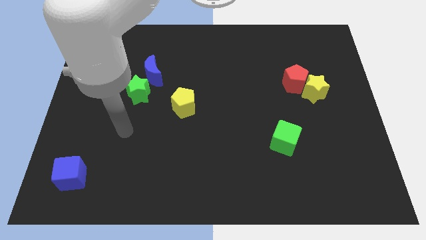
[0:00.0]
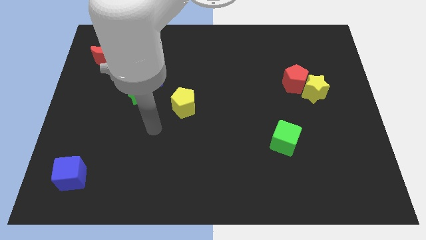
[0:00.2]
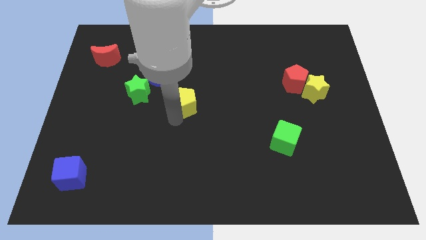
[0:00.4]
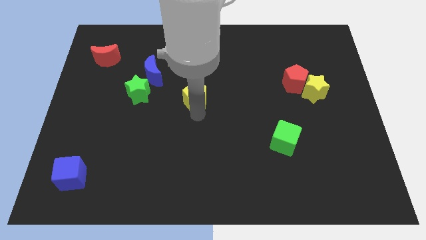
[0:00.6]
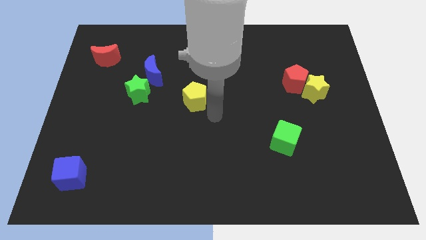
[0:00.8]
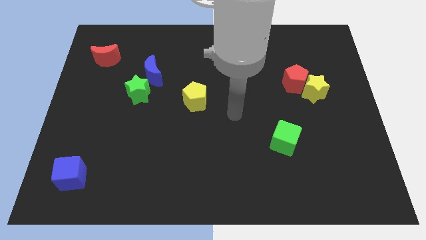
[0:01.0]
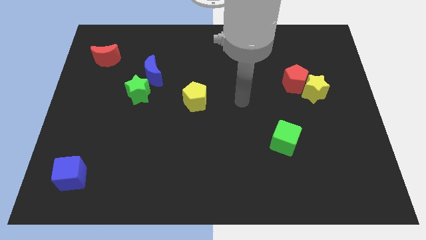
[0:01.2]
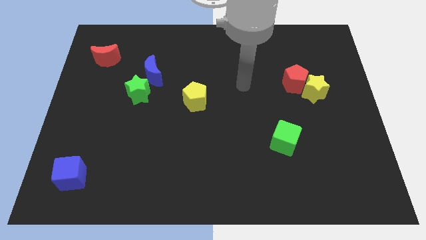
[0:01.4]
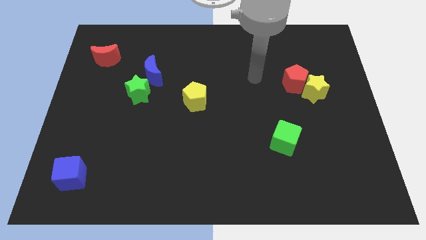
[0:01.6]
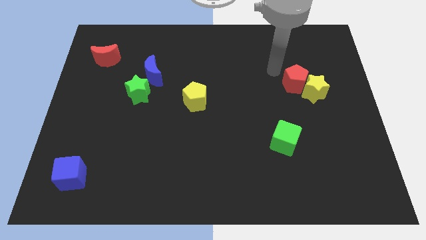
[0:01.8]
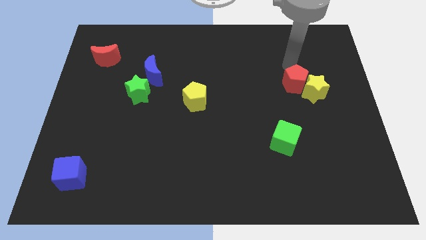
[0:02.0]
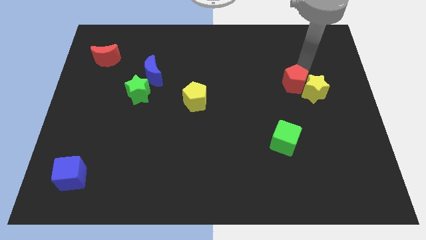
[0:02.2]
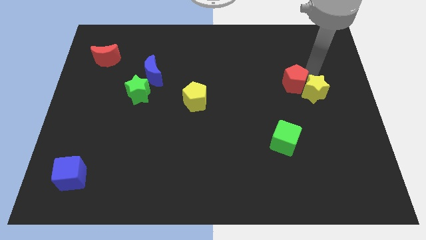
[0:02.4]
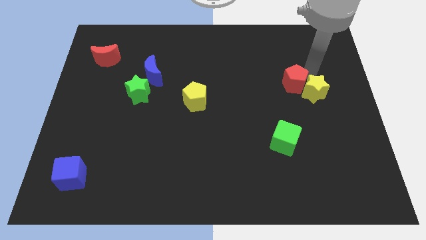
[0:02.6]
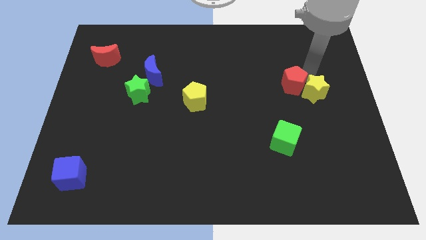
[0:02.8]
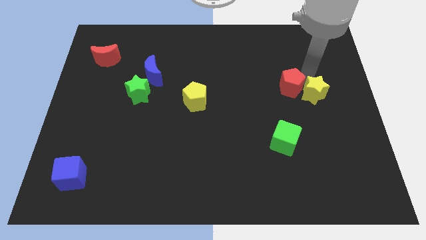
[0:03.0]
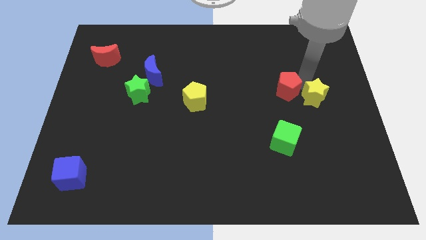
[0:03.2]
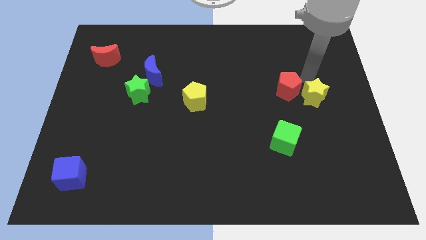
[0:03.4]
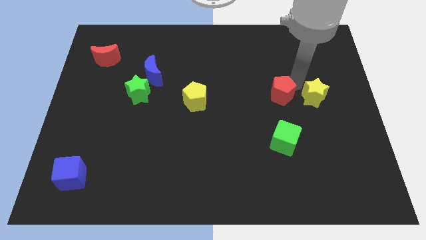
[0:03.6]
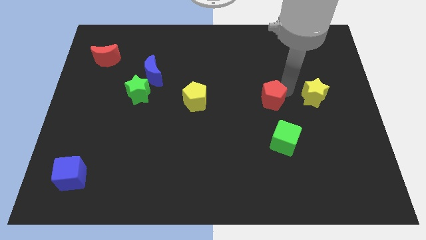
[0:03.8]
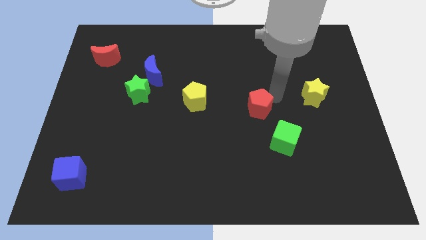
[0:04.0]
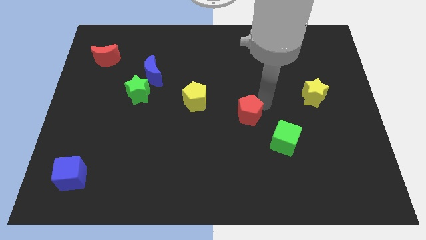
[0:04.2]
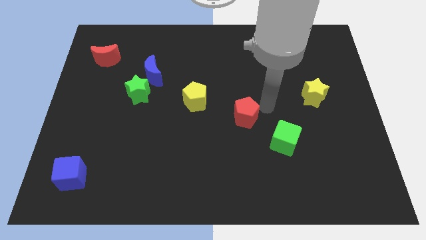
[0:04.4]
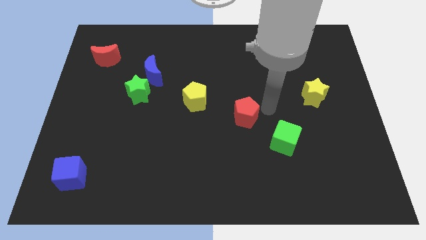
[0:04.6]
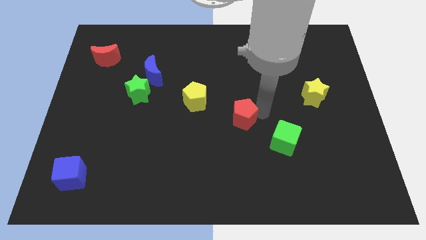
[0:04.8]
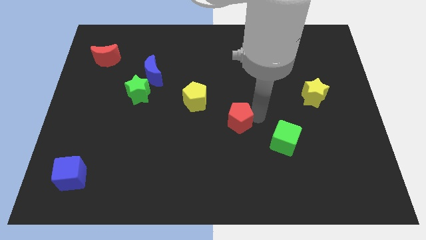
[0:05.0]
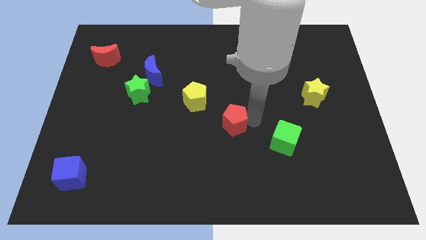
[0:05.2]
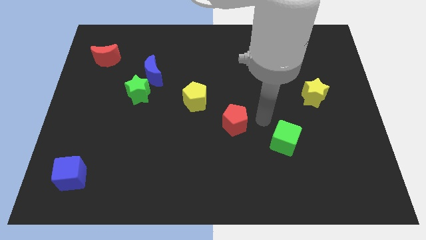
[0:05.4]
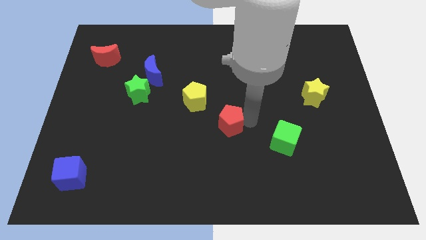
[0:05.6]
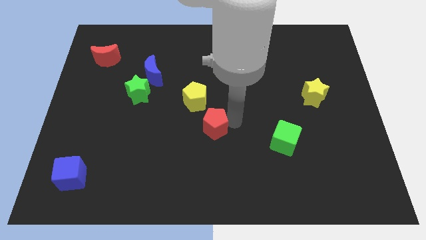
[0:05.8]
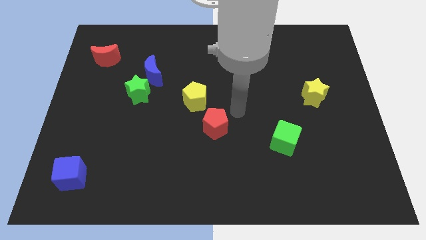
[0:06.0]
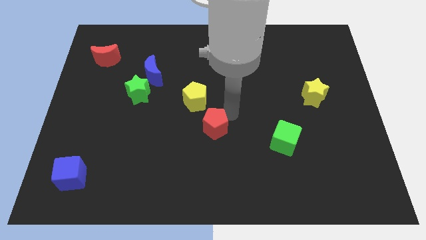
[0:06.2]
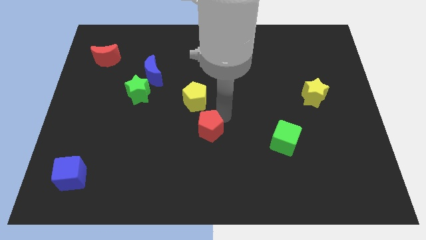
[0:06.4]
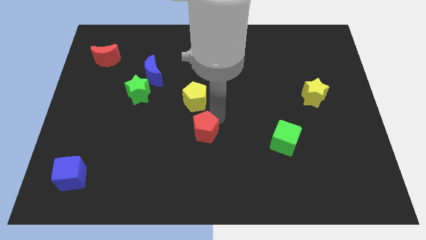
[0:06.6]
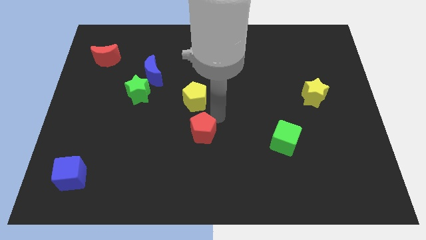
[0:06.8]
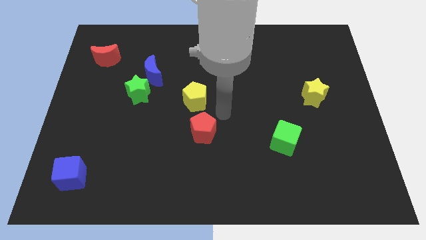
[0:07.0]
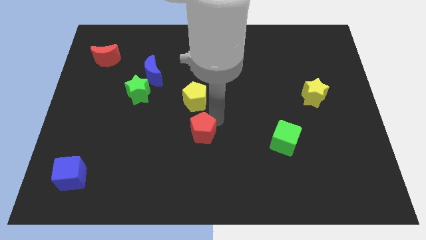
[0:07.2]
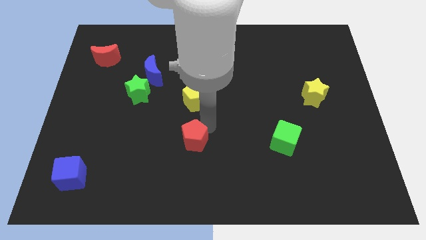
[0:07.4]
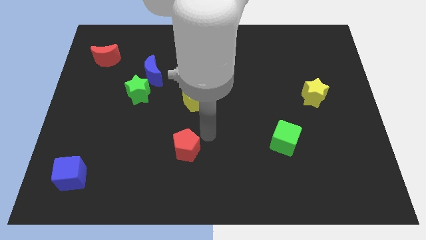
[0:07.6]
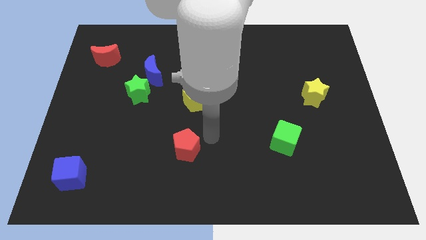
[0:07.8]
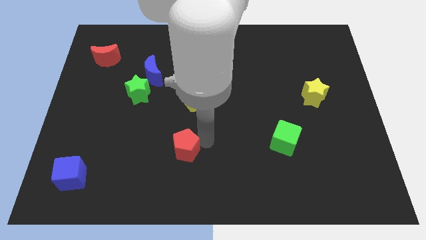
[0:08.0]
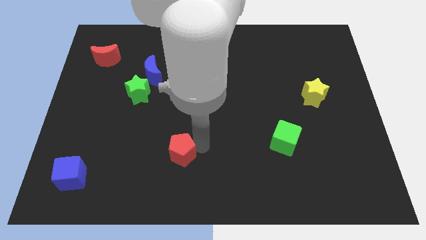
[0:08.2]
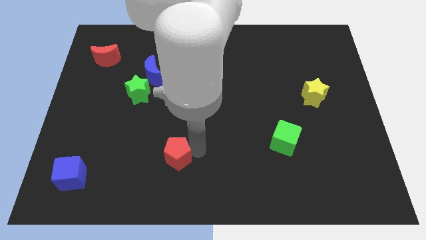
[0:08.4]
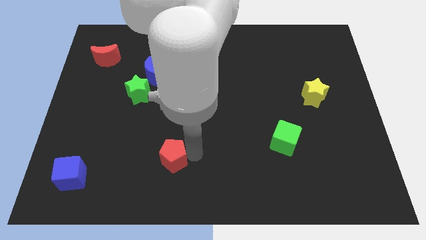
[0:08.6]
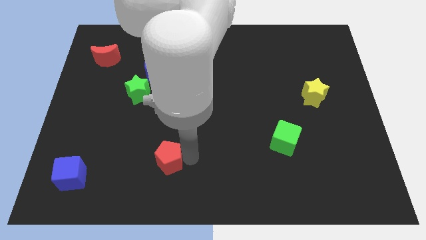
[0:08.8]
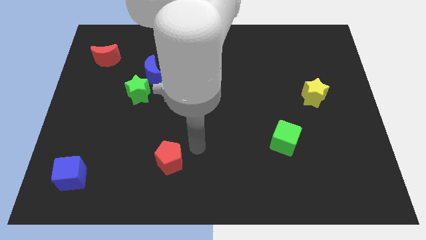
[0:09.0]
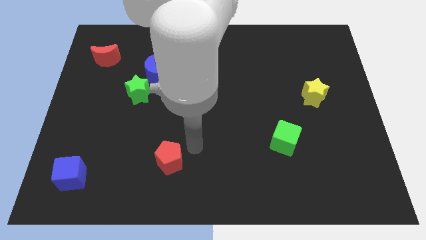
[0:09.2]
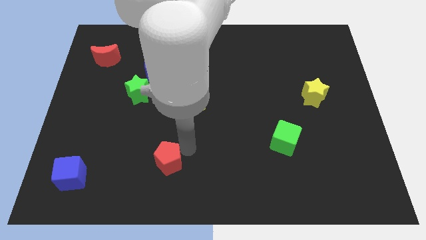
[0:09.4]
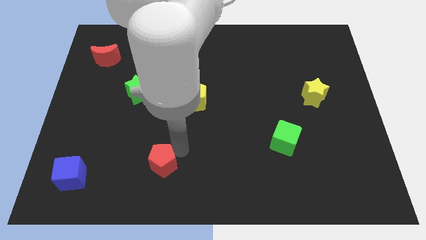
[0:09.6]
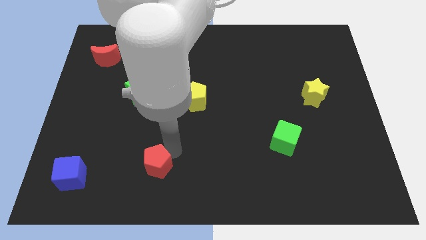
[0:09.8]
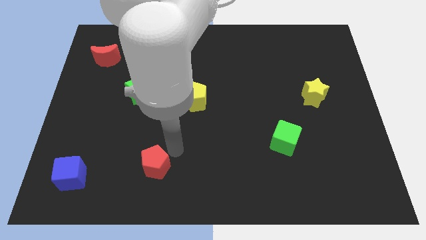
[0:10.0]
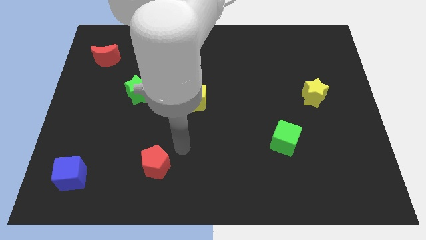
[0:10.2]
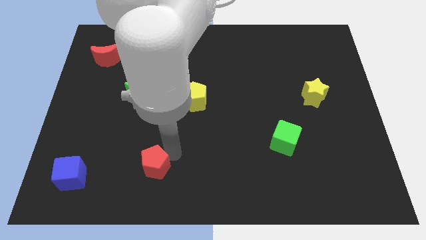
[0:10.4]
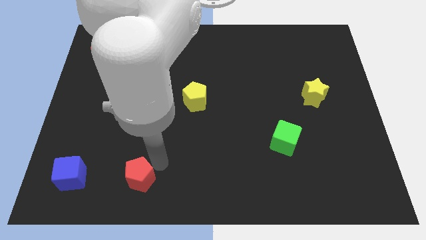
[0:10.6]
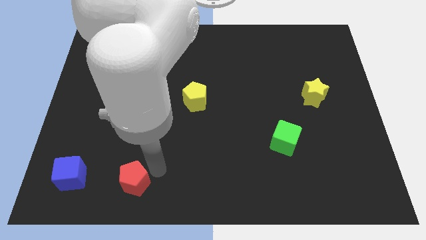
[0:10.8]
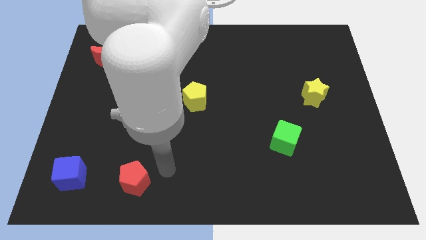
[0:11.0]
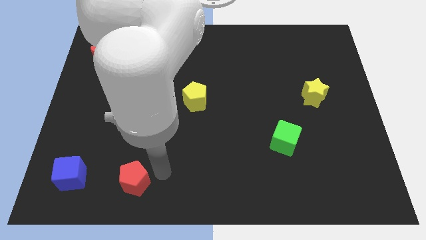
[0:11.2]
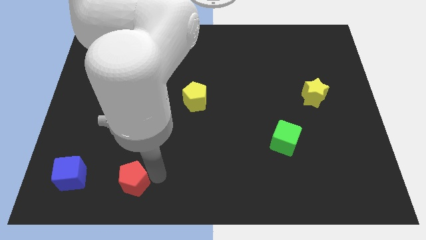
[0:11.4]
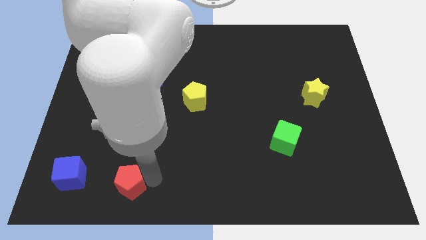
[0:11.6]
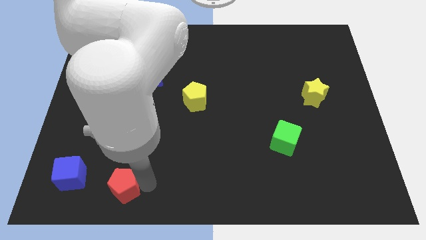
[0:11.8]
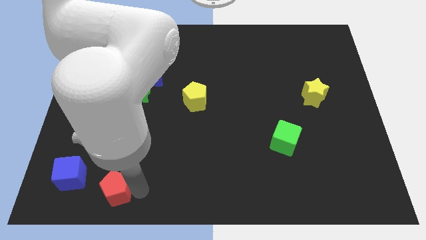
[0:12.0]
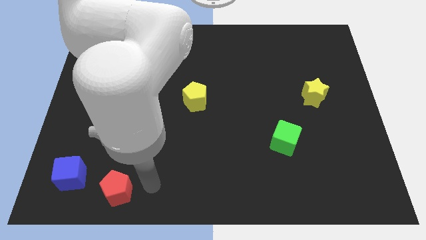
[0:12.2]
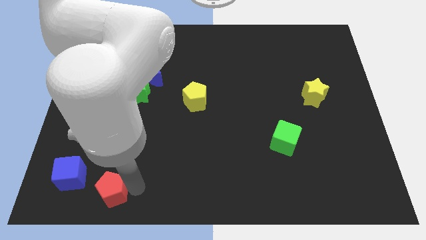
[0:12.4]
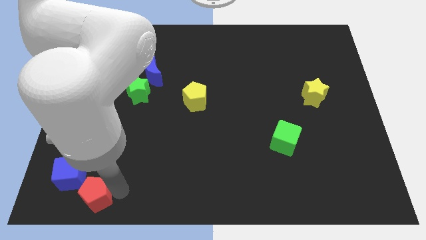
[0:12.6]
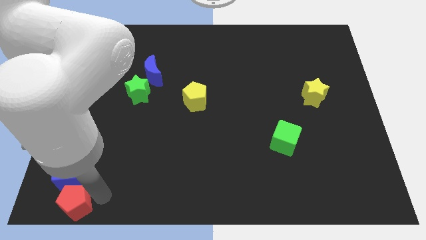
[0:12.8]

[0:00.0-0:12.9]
slide the red pentagon to the bottom left corner
